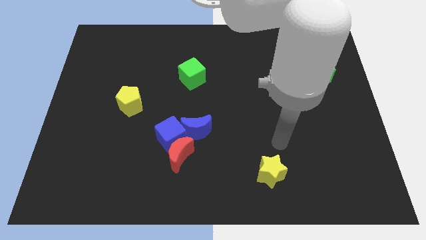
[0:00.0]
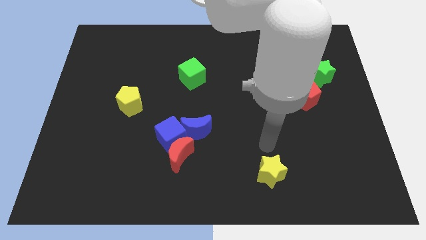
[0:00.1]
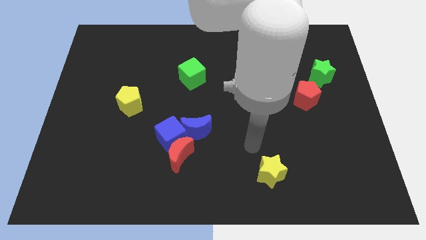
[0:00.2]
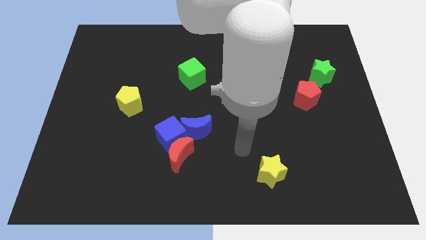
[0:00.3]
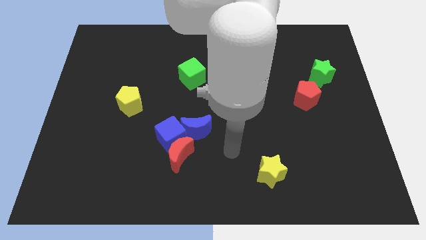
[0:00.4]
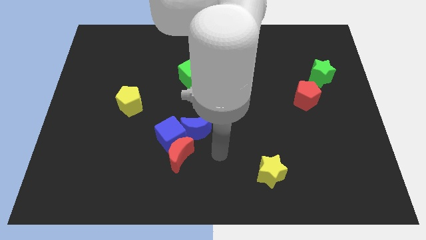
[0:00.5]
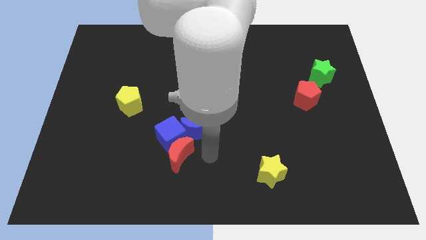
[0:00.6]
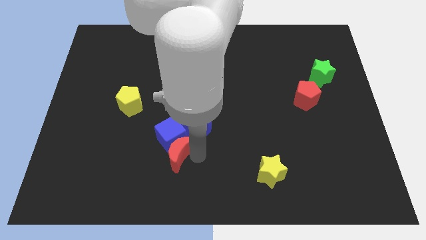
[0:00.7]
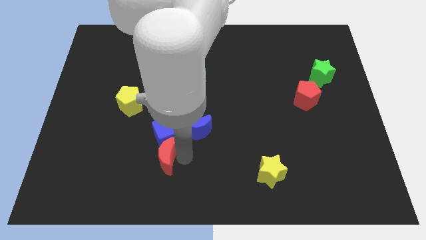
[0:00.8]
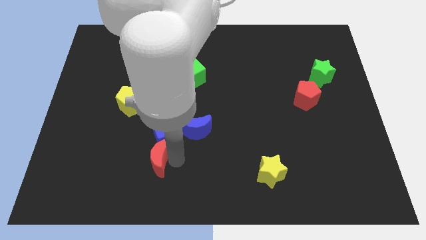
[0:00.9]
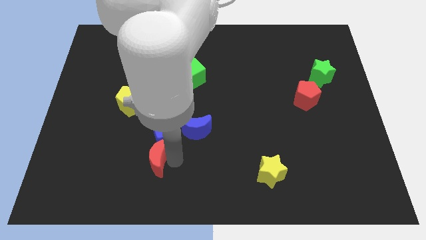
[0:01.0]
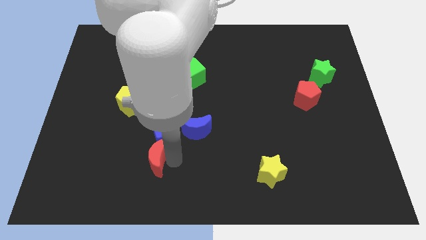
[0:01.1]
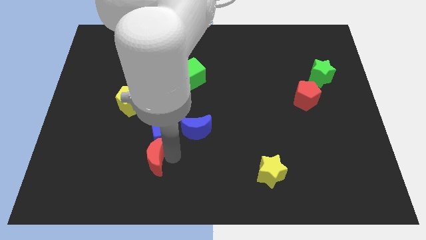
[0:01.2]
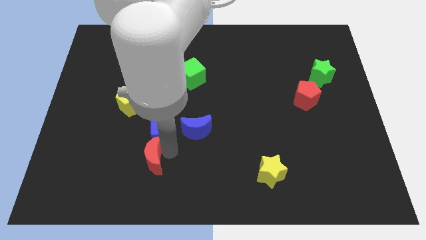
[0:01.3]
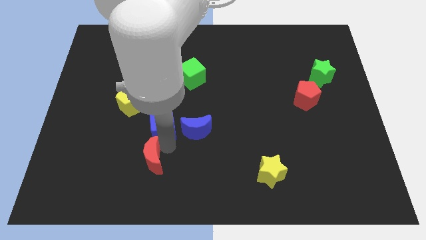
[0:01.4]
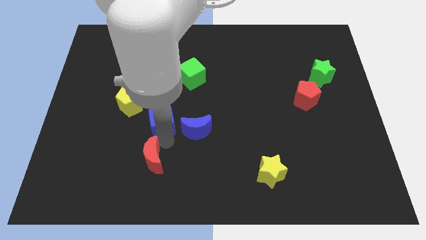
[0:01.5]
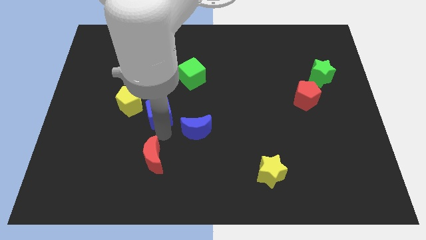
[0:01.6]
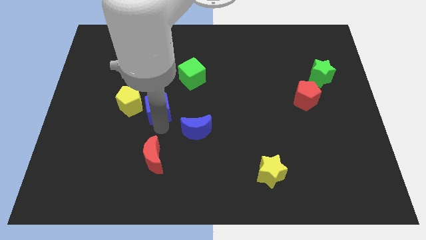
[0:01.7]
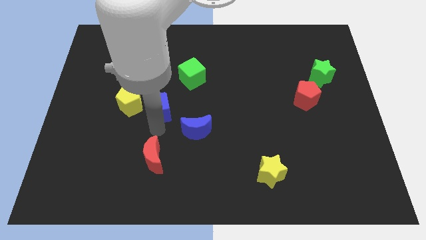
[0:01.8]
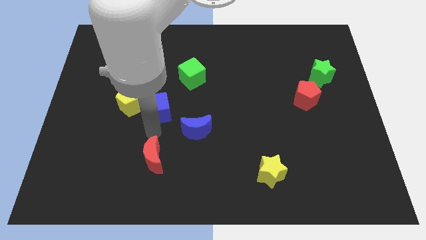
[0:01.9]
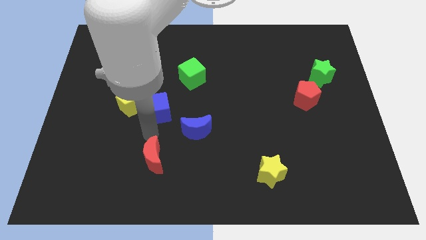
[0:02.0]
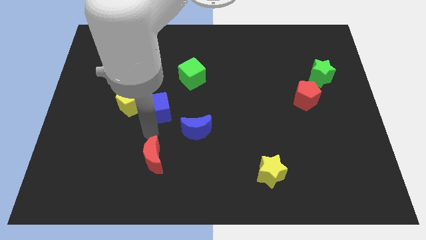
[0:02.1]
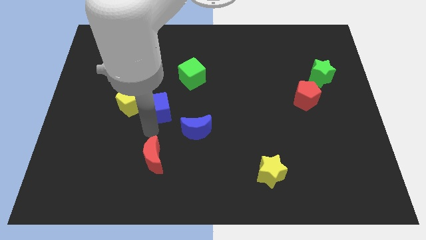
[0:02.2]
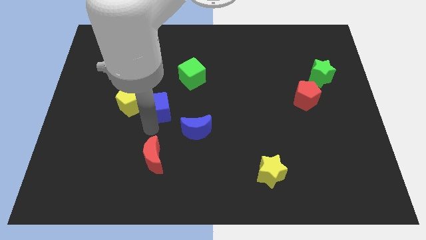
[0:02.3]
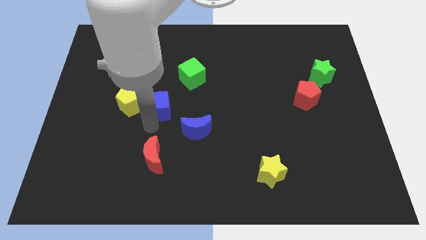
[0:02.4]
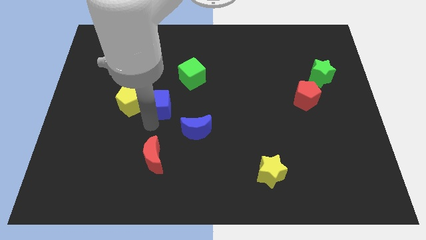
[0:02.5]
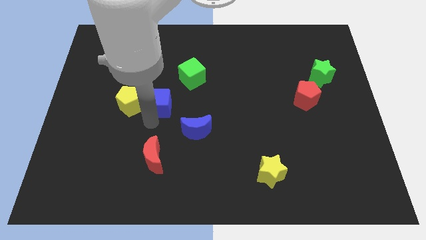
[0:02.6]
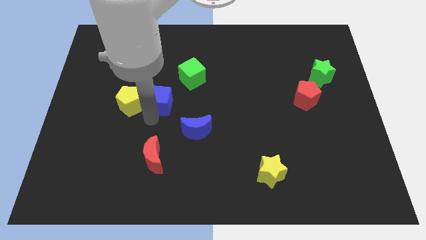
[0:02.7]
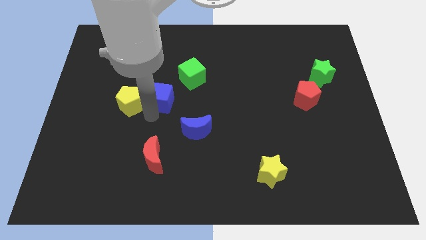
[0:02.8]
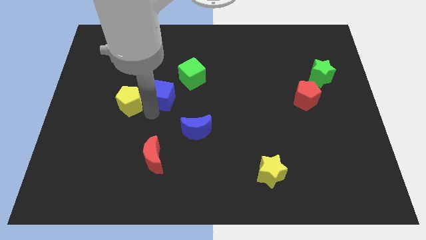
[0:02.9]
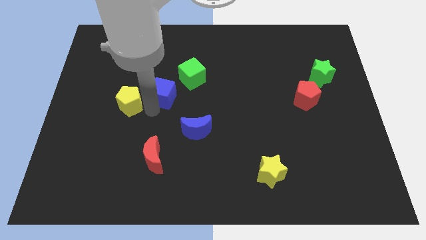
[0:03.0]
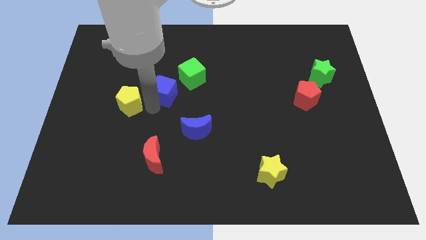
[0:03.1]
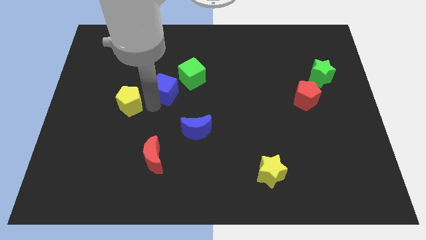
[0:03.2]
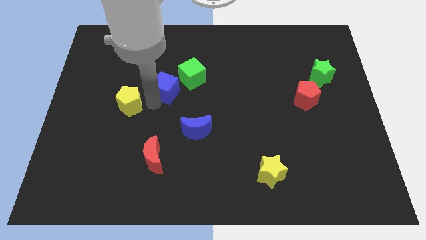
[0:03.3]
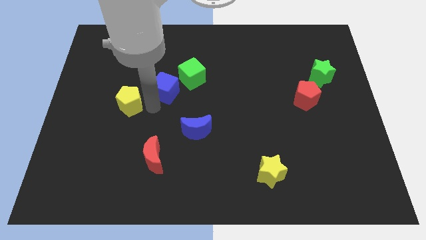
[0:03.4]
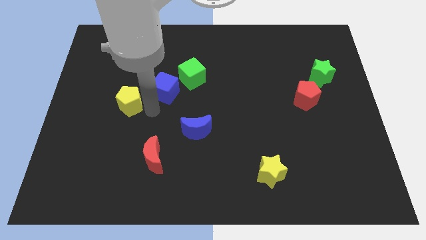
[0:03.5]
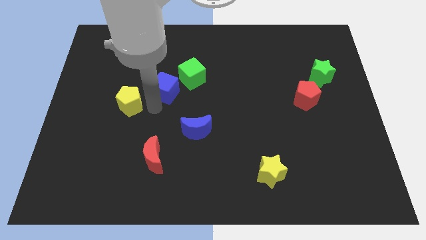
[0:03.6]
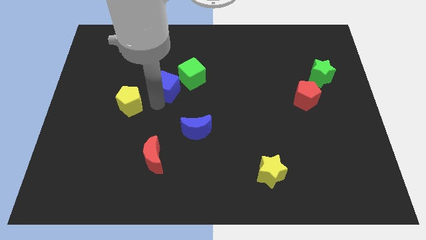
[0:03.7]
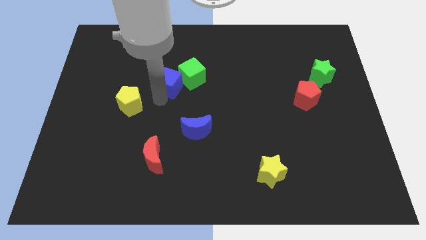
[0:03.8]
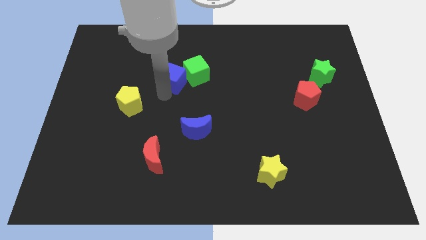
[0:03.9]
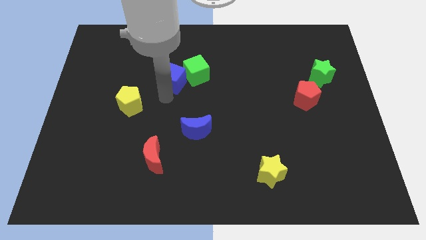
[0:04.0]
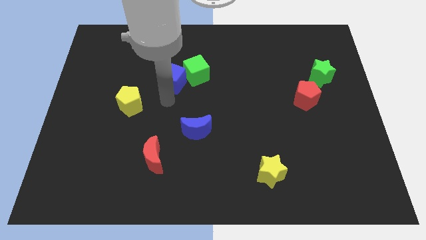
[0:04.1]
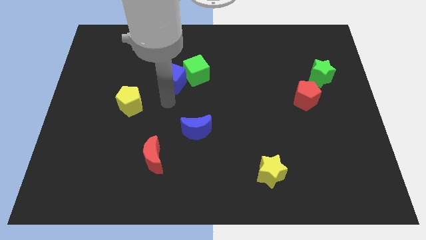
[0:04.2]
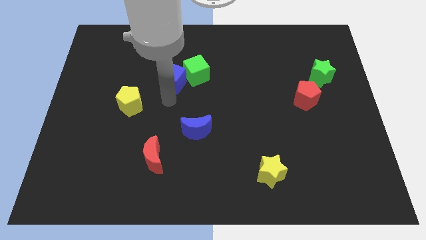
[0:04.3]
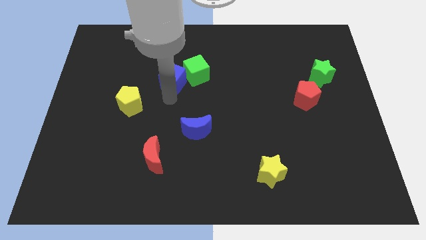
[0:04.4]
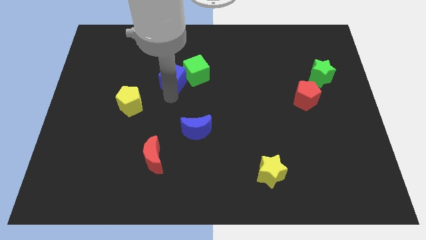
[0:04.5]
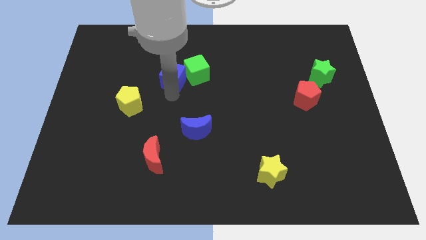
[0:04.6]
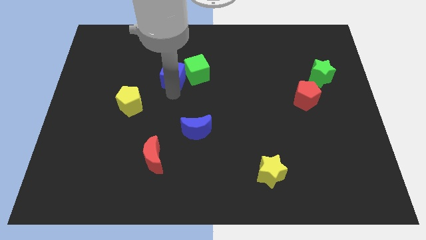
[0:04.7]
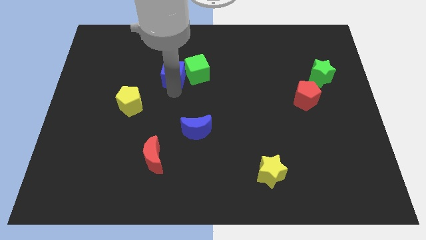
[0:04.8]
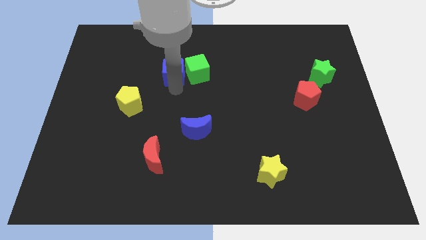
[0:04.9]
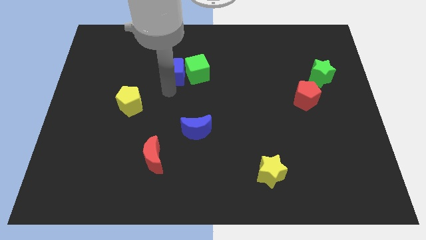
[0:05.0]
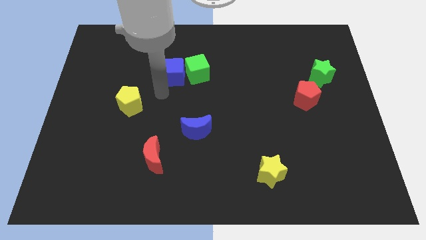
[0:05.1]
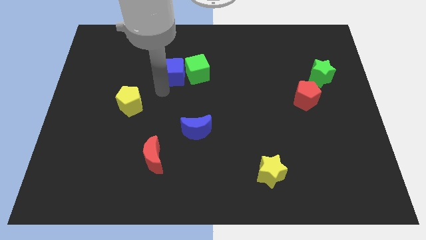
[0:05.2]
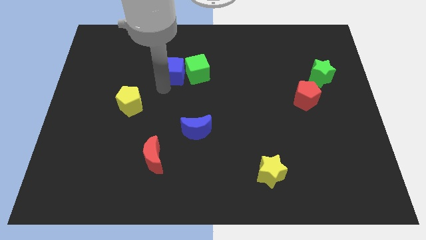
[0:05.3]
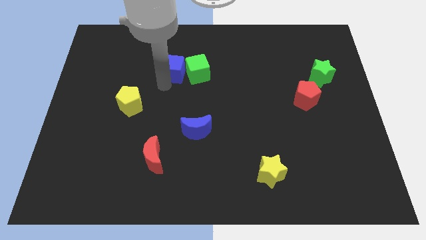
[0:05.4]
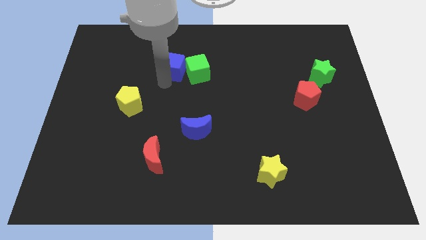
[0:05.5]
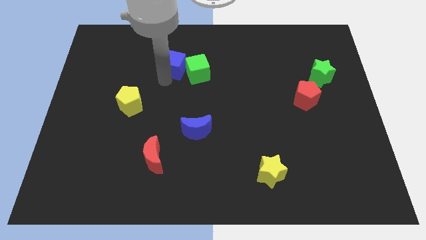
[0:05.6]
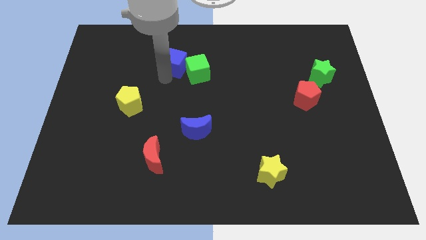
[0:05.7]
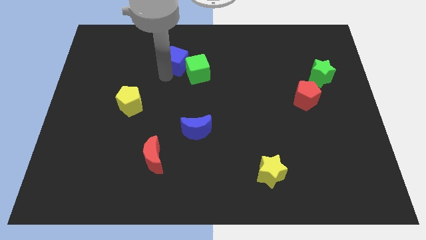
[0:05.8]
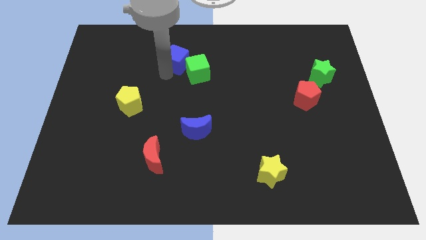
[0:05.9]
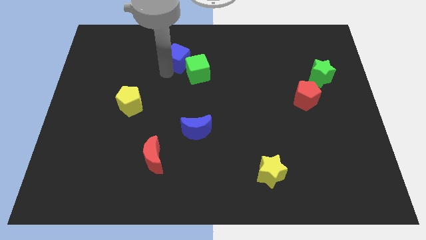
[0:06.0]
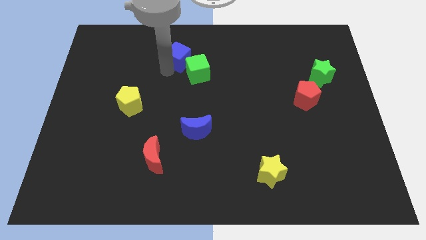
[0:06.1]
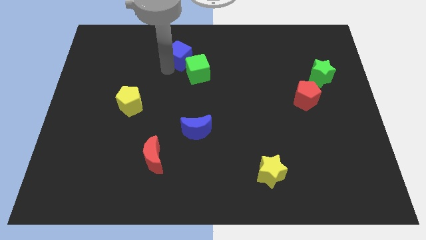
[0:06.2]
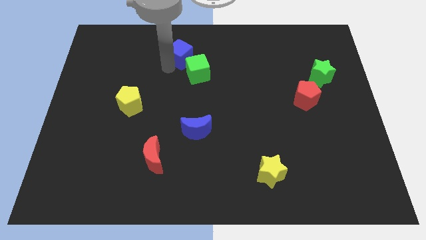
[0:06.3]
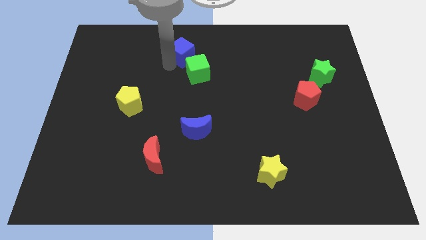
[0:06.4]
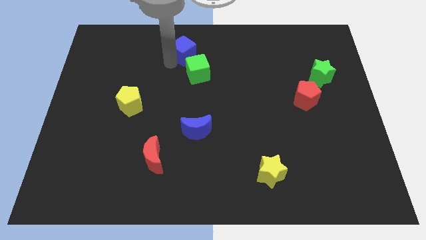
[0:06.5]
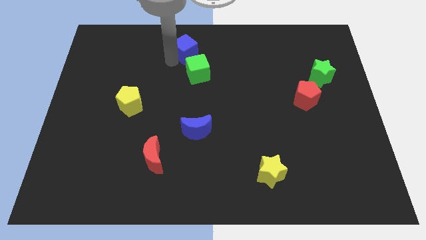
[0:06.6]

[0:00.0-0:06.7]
move the blue cube to the towards your base

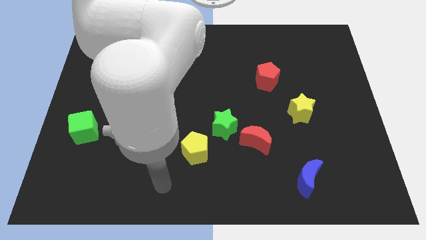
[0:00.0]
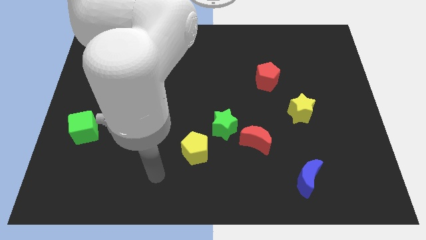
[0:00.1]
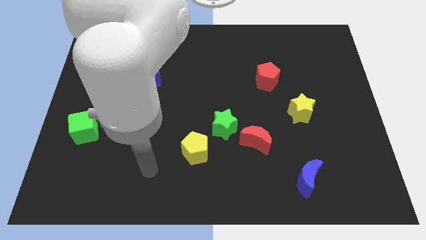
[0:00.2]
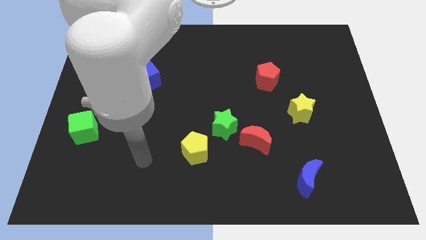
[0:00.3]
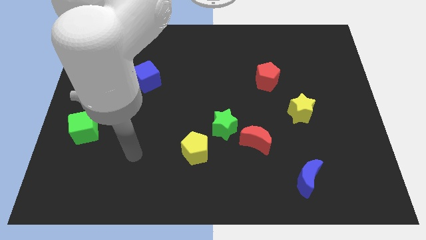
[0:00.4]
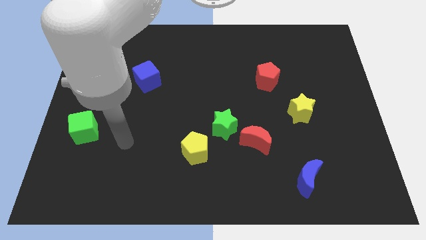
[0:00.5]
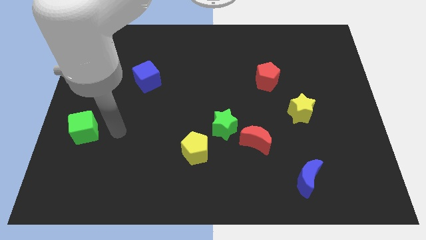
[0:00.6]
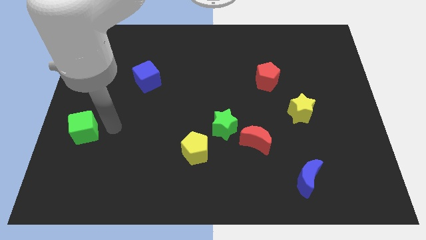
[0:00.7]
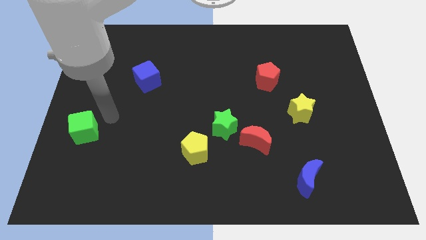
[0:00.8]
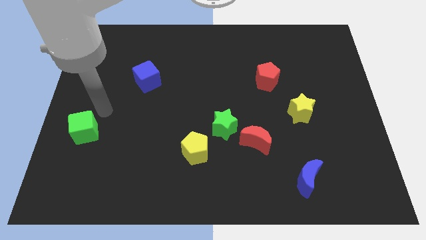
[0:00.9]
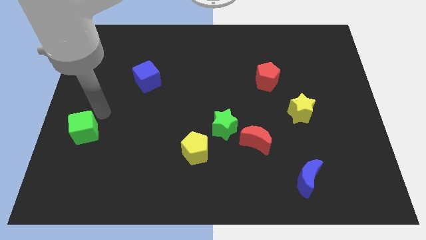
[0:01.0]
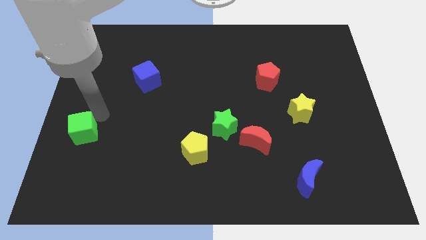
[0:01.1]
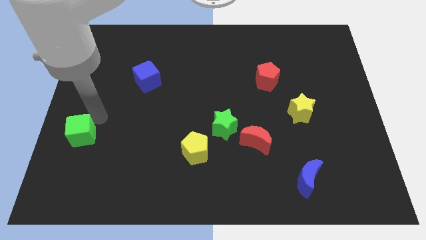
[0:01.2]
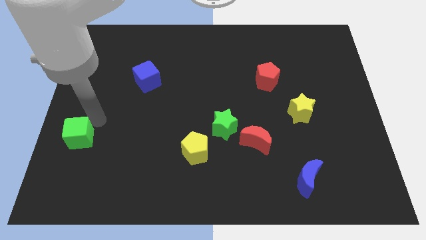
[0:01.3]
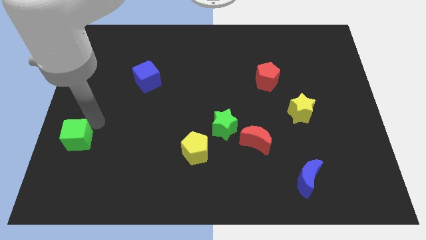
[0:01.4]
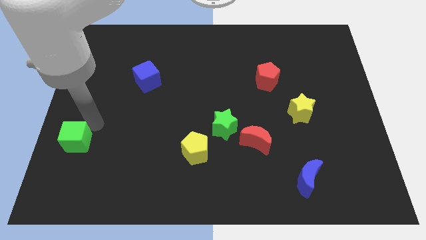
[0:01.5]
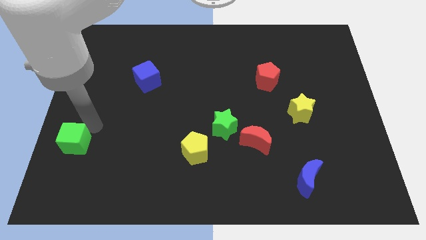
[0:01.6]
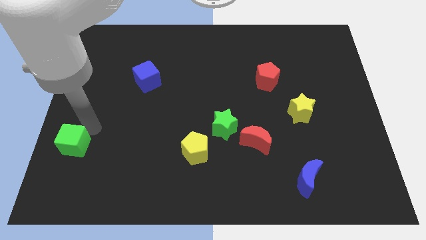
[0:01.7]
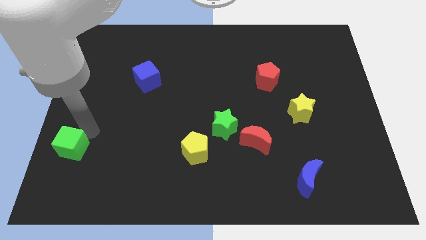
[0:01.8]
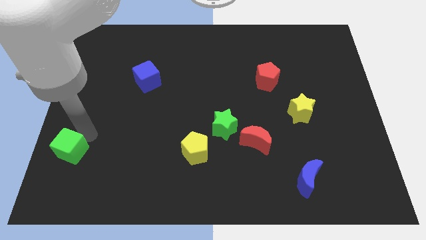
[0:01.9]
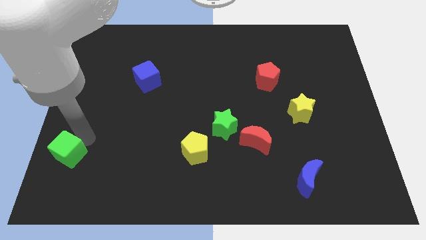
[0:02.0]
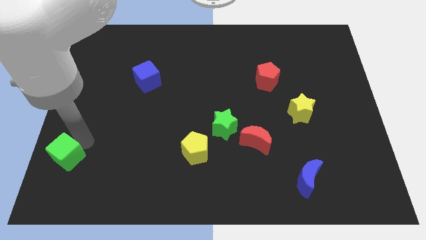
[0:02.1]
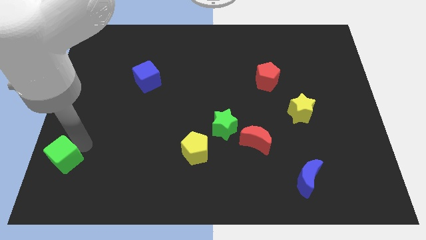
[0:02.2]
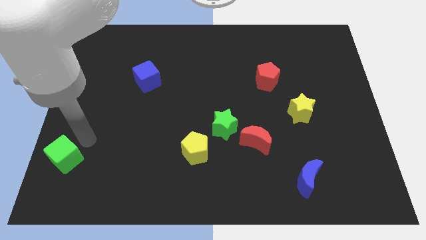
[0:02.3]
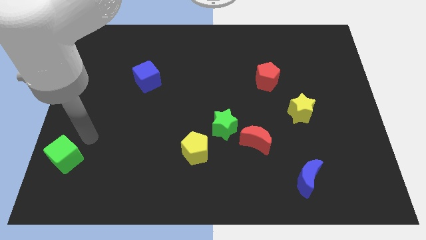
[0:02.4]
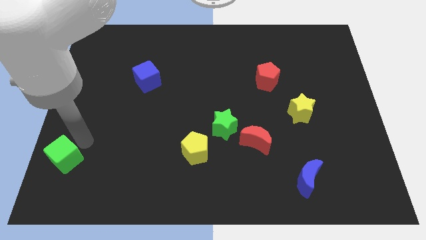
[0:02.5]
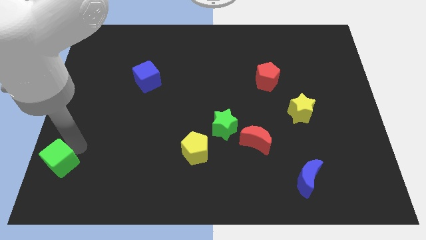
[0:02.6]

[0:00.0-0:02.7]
put the green cube to the bottom left
